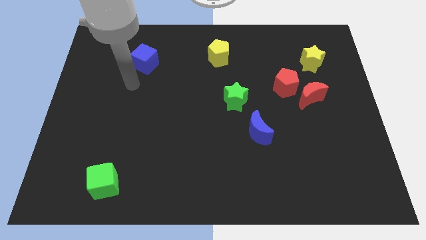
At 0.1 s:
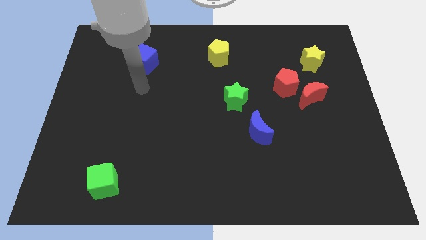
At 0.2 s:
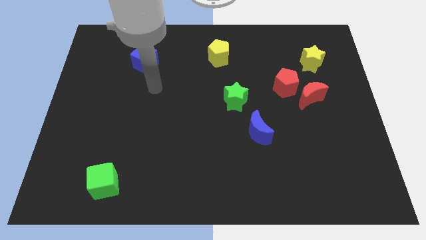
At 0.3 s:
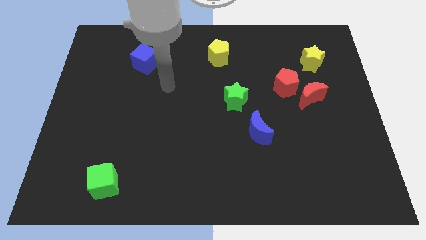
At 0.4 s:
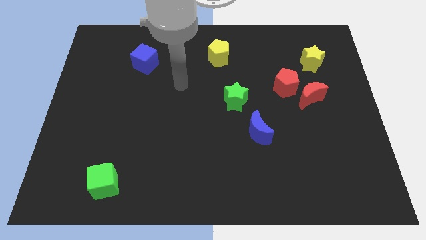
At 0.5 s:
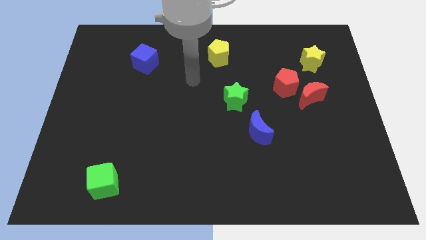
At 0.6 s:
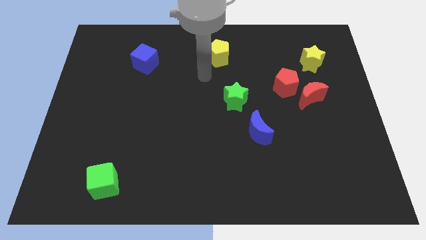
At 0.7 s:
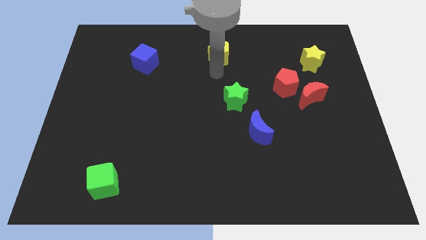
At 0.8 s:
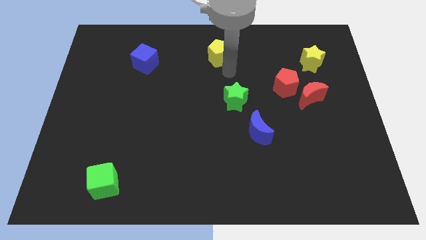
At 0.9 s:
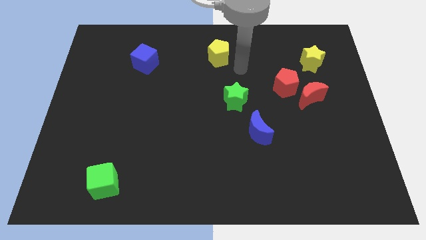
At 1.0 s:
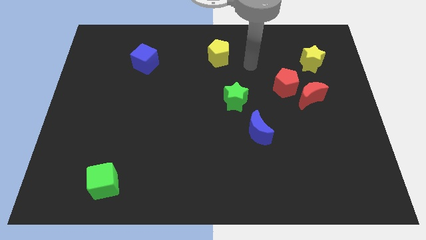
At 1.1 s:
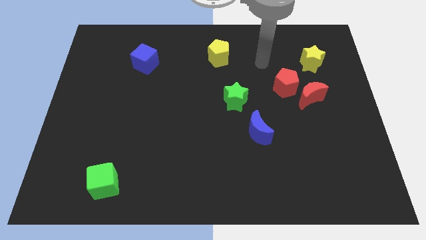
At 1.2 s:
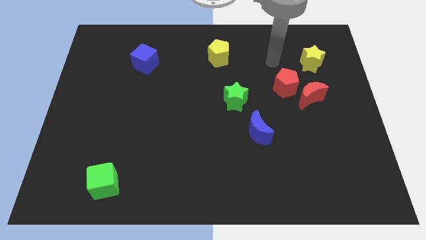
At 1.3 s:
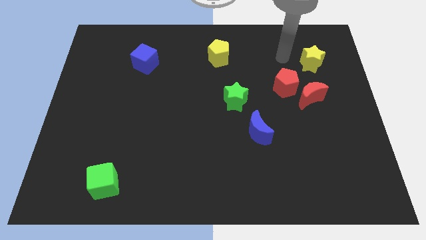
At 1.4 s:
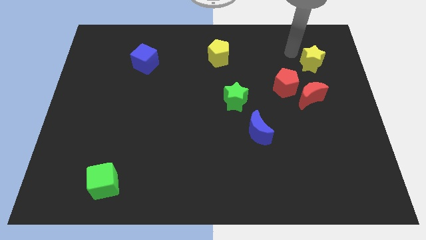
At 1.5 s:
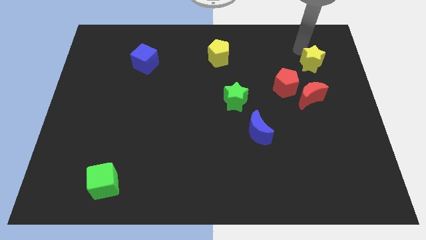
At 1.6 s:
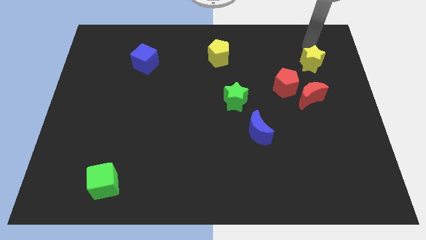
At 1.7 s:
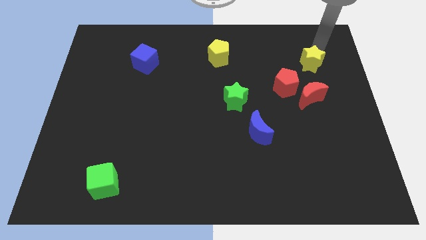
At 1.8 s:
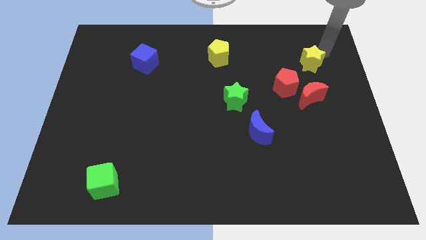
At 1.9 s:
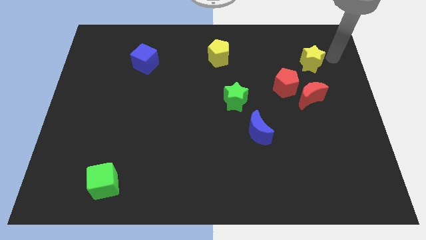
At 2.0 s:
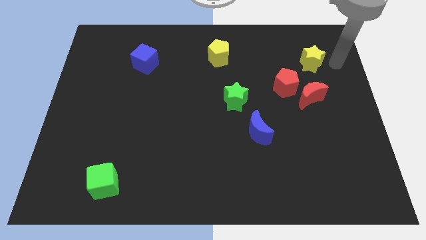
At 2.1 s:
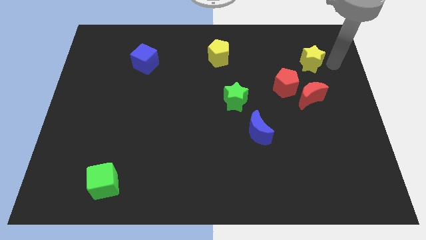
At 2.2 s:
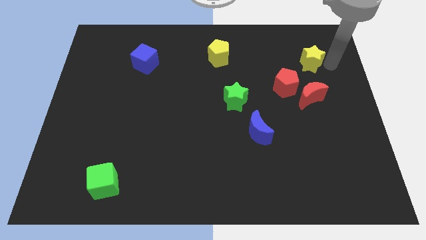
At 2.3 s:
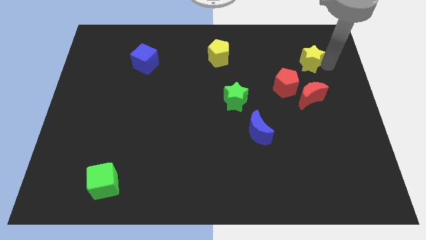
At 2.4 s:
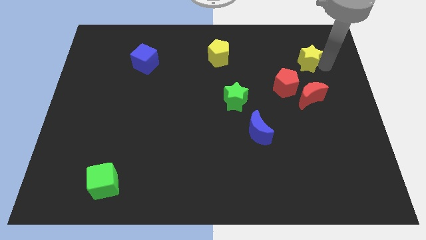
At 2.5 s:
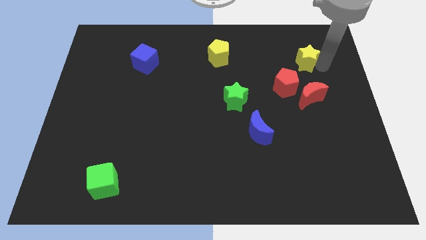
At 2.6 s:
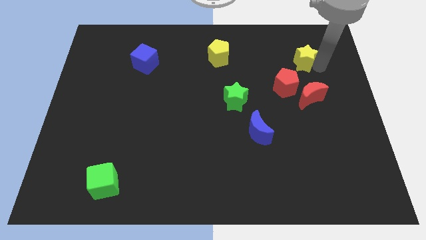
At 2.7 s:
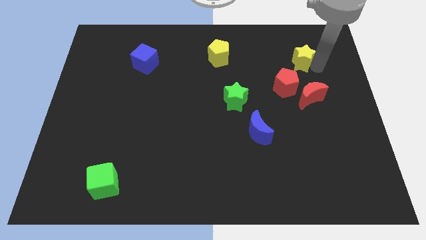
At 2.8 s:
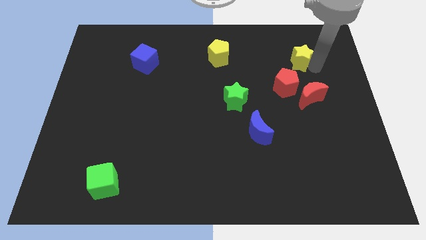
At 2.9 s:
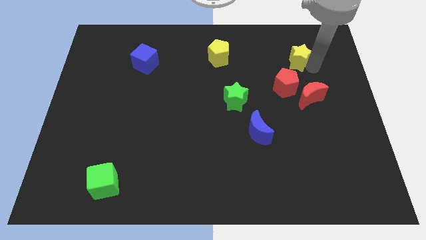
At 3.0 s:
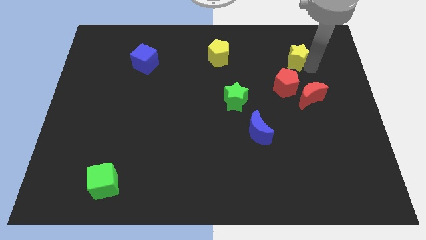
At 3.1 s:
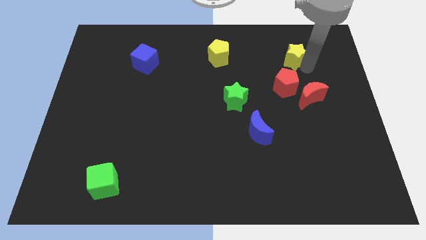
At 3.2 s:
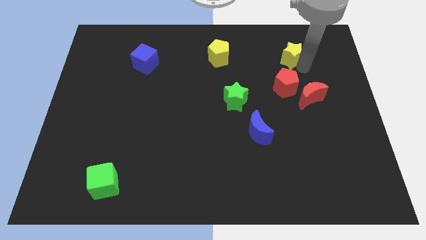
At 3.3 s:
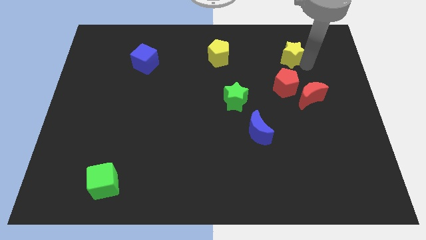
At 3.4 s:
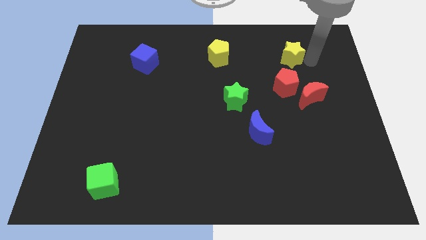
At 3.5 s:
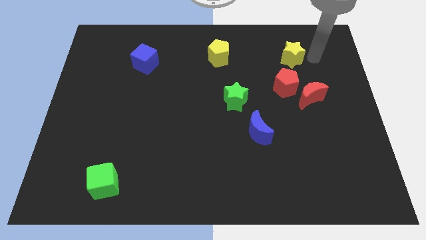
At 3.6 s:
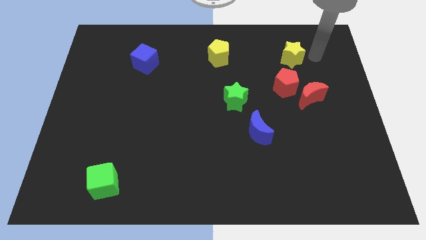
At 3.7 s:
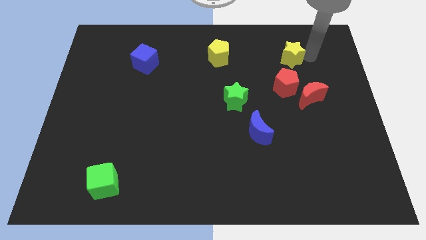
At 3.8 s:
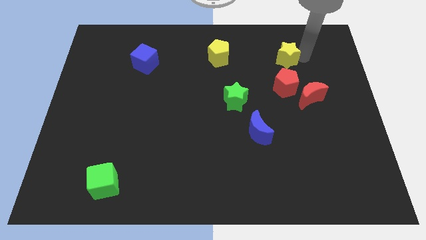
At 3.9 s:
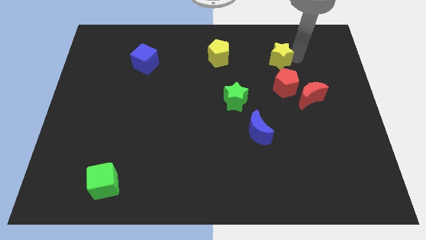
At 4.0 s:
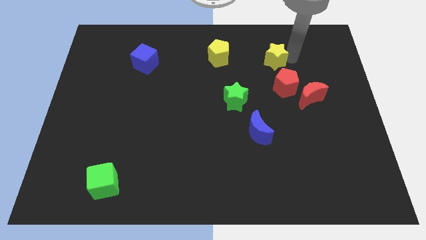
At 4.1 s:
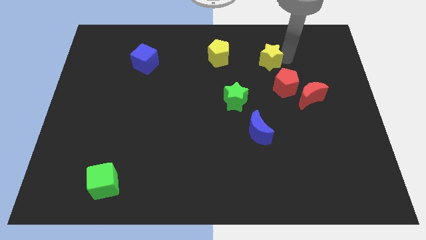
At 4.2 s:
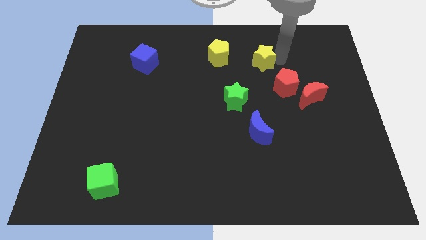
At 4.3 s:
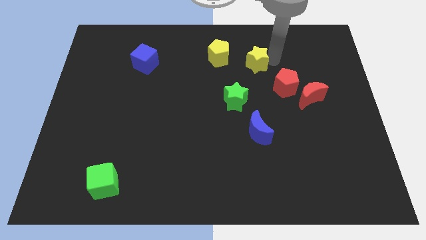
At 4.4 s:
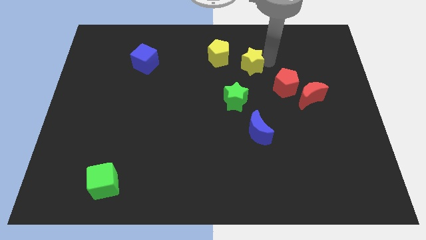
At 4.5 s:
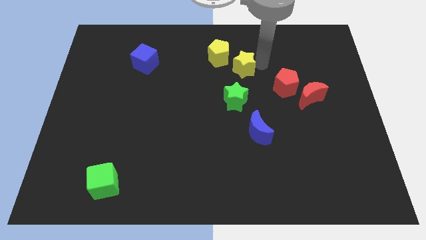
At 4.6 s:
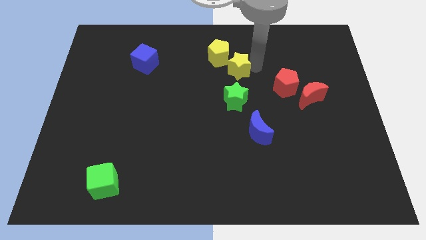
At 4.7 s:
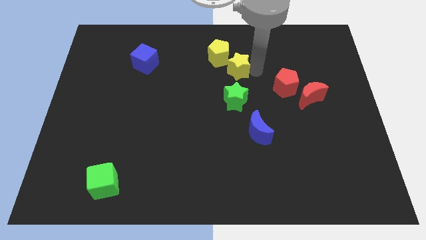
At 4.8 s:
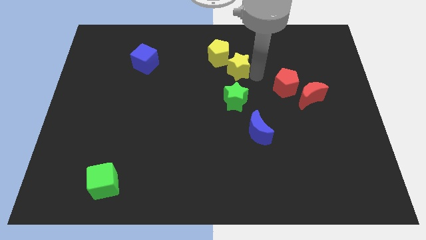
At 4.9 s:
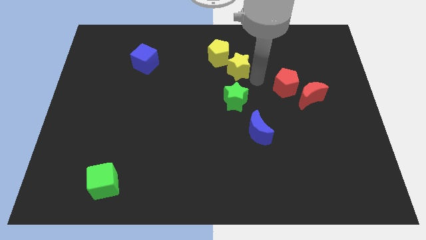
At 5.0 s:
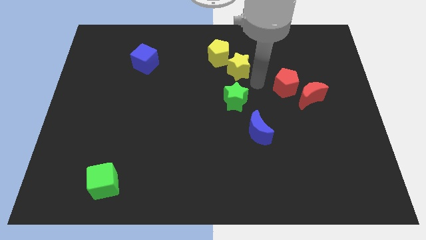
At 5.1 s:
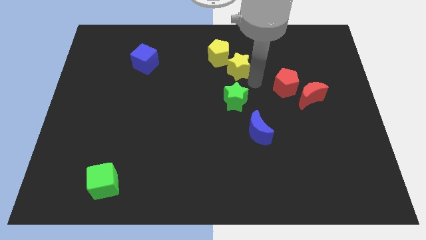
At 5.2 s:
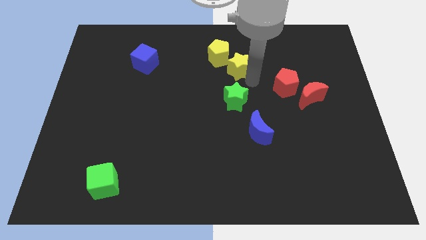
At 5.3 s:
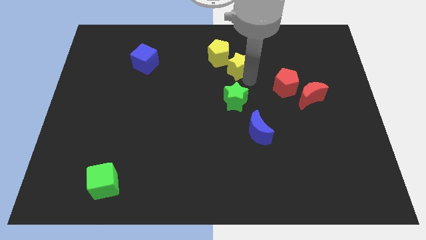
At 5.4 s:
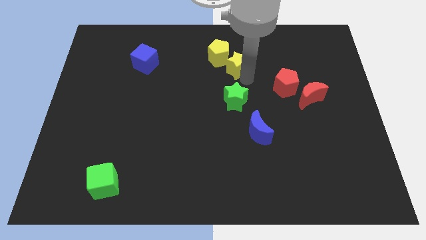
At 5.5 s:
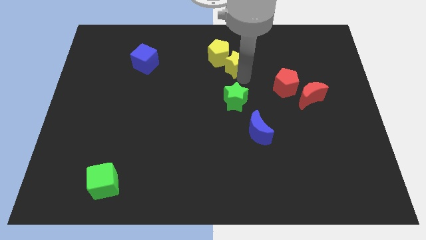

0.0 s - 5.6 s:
put the yellow star next to the yellow pentagon

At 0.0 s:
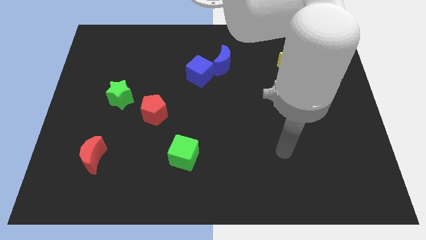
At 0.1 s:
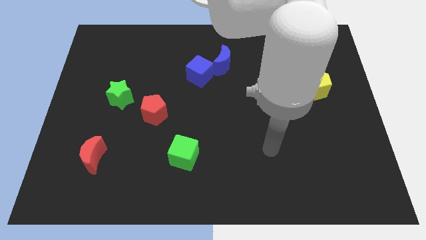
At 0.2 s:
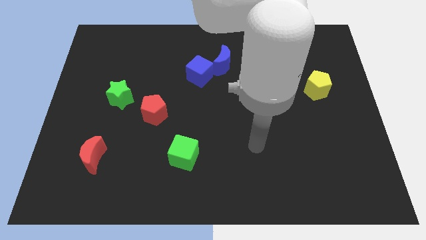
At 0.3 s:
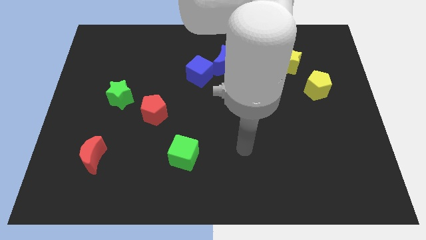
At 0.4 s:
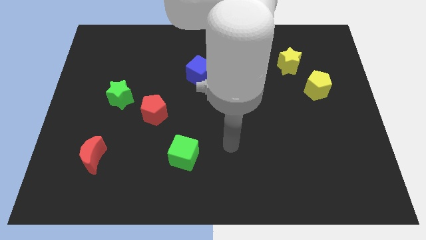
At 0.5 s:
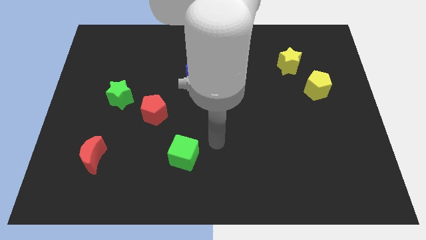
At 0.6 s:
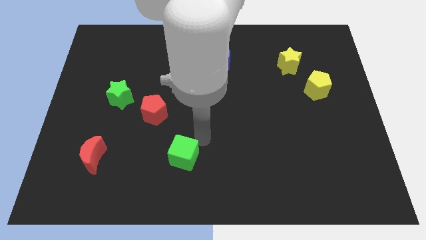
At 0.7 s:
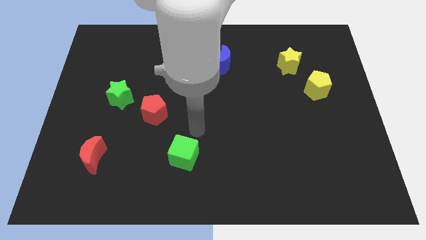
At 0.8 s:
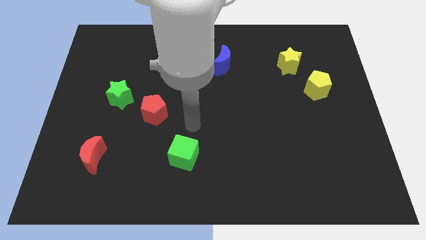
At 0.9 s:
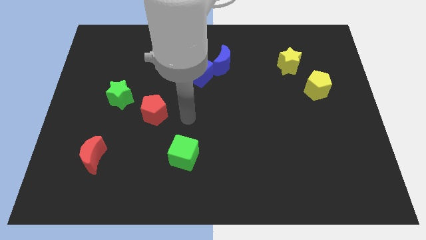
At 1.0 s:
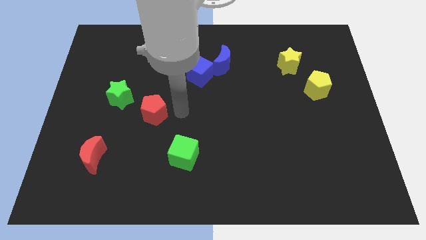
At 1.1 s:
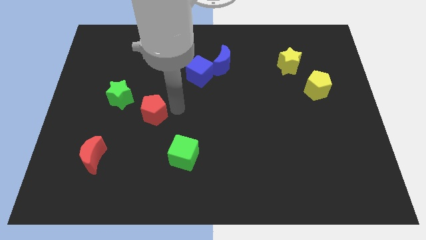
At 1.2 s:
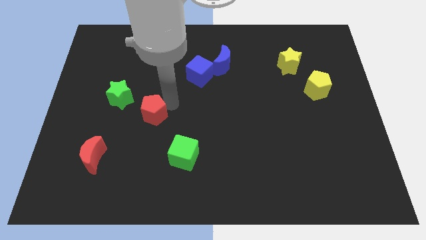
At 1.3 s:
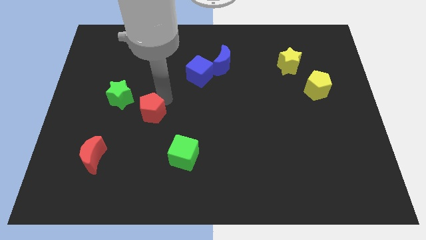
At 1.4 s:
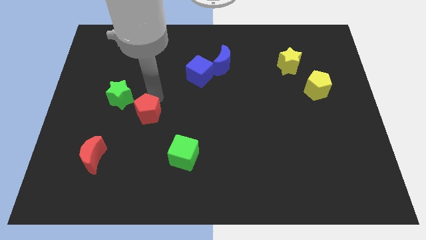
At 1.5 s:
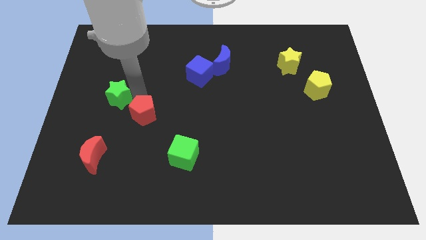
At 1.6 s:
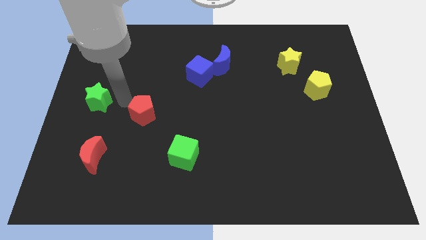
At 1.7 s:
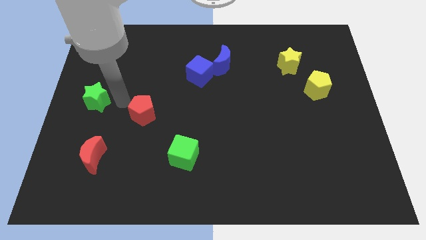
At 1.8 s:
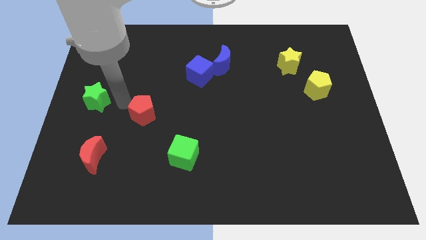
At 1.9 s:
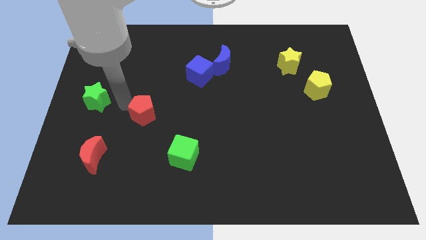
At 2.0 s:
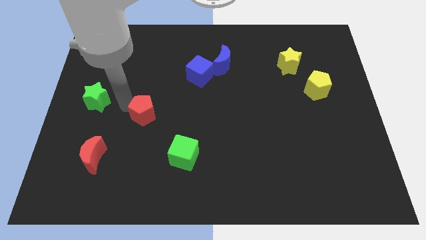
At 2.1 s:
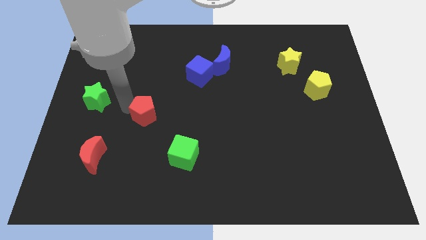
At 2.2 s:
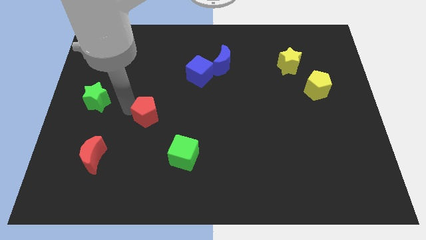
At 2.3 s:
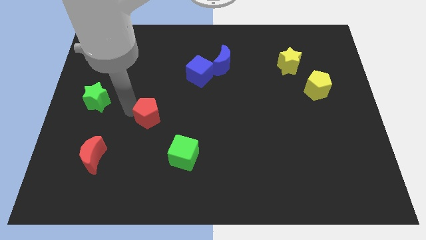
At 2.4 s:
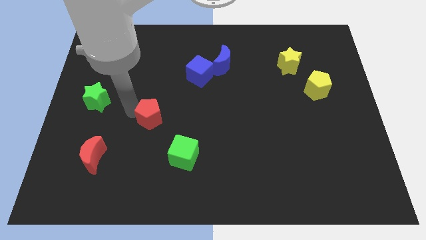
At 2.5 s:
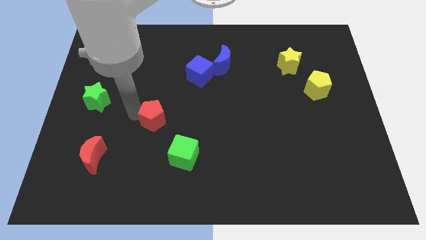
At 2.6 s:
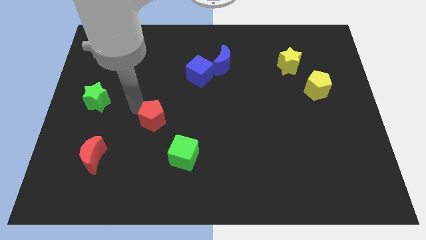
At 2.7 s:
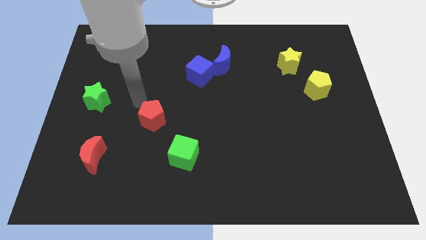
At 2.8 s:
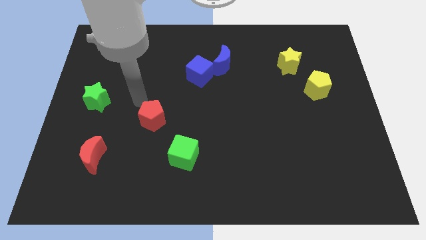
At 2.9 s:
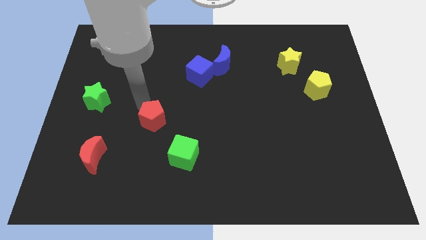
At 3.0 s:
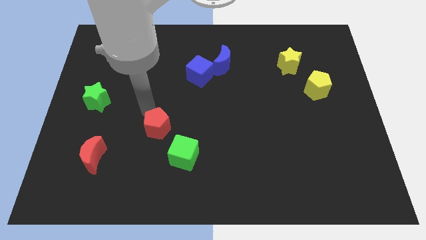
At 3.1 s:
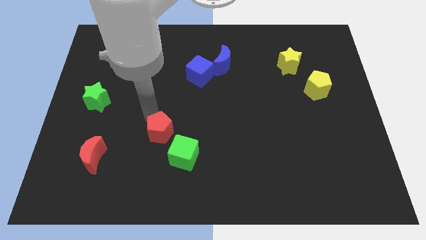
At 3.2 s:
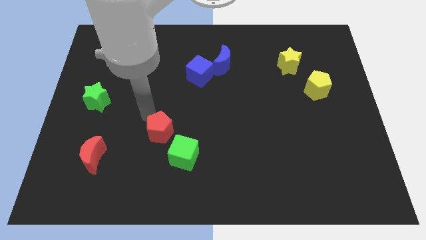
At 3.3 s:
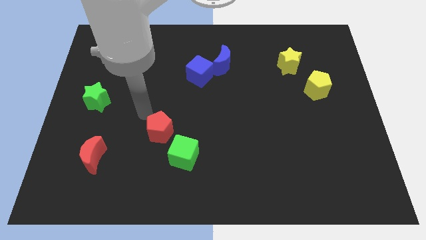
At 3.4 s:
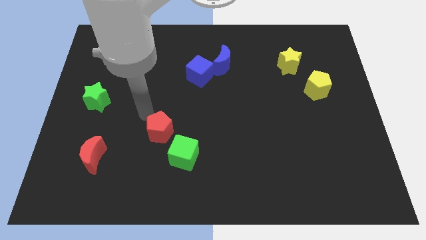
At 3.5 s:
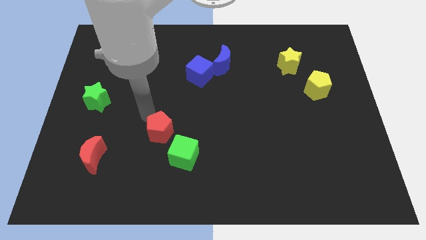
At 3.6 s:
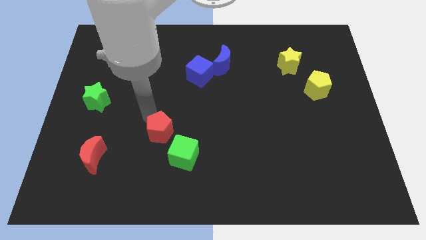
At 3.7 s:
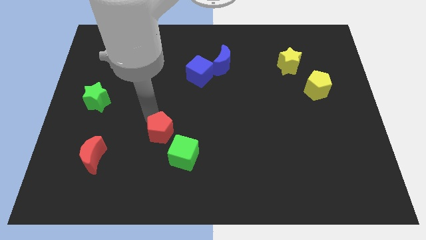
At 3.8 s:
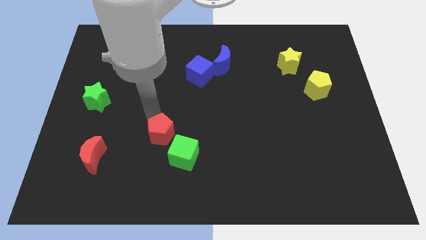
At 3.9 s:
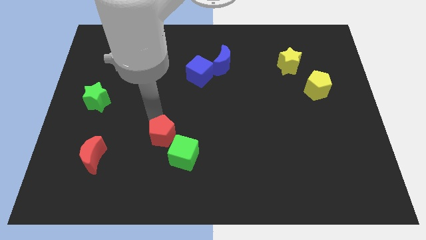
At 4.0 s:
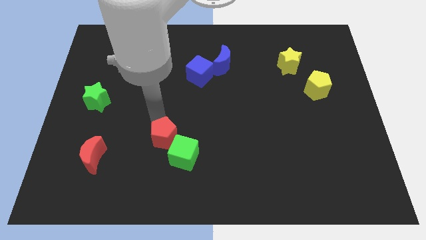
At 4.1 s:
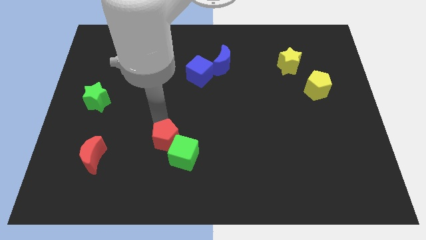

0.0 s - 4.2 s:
push the red pentagon close to the green cube
